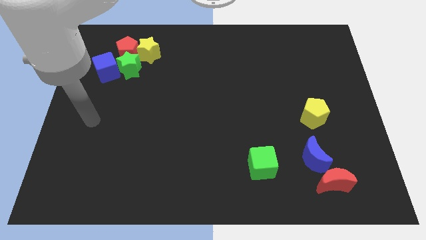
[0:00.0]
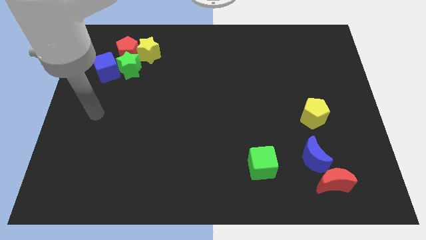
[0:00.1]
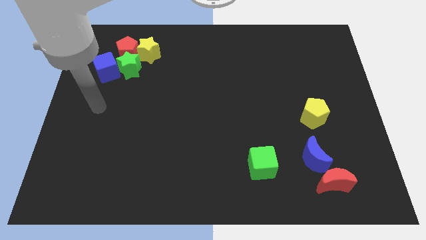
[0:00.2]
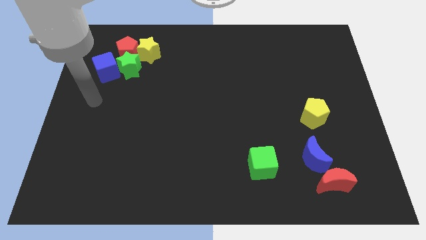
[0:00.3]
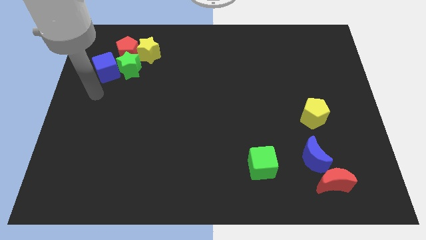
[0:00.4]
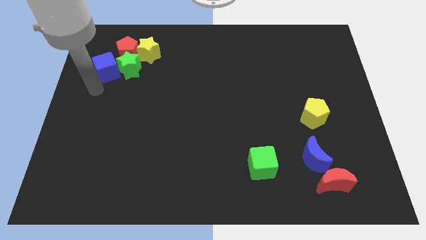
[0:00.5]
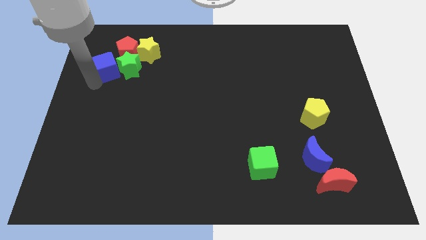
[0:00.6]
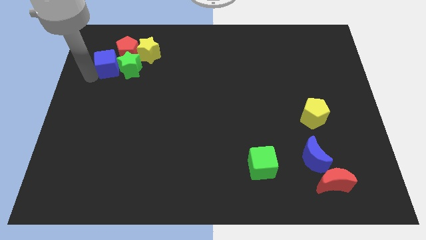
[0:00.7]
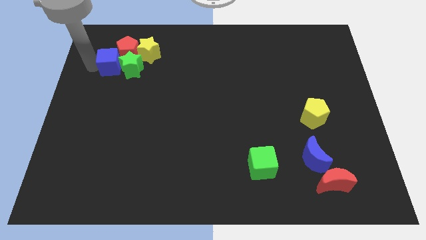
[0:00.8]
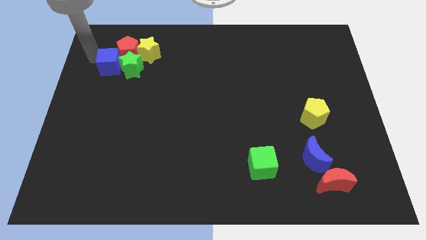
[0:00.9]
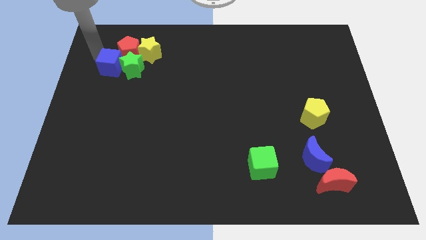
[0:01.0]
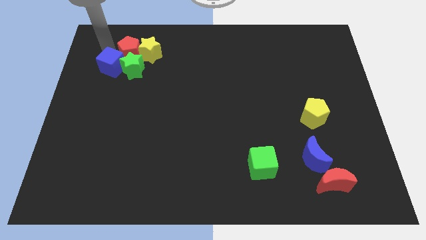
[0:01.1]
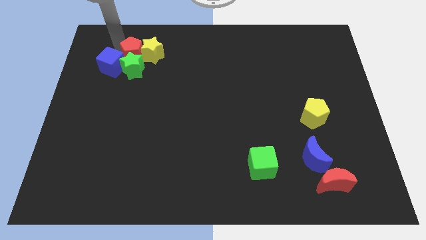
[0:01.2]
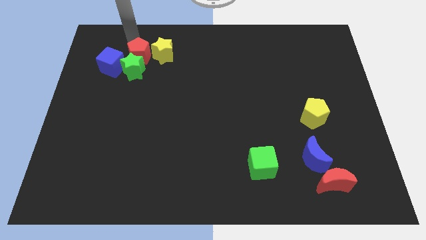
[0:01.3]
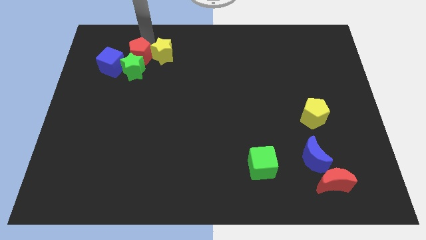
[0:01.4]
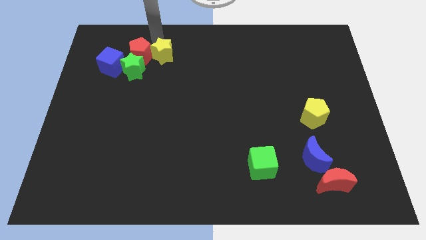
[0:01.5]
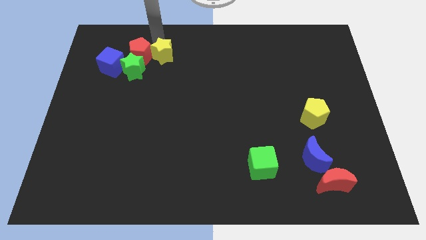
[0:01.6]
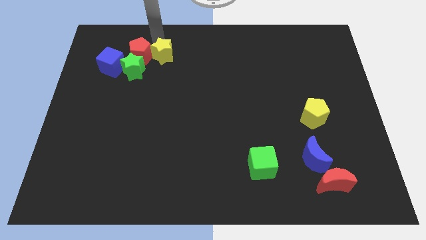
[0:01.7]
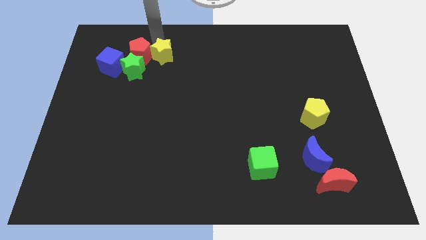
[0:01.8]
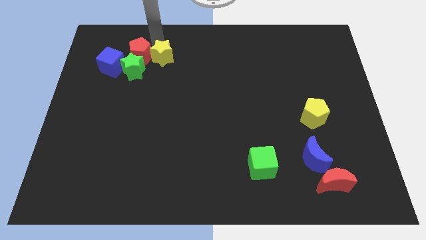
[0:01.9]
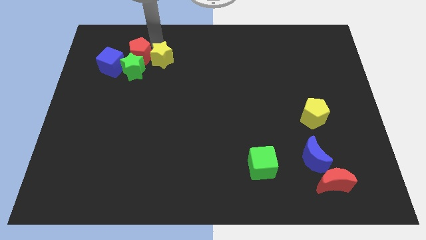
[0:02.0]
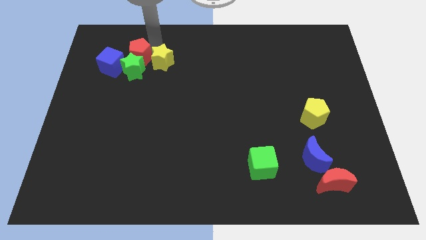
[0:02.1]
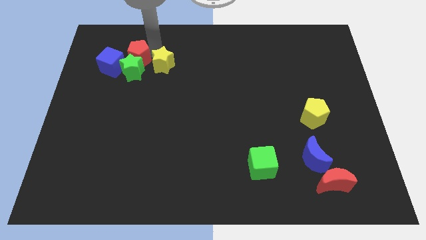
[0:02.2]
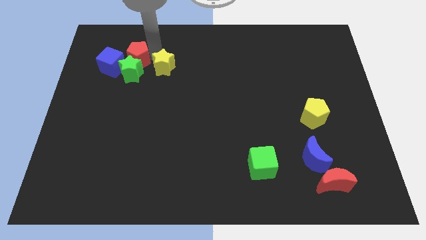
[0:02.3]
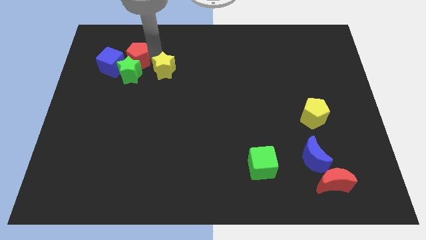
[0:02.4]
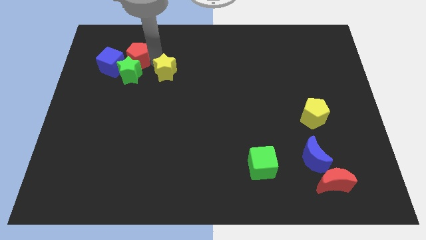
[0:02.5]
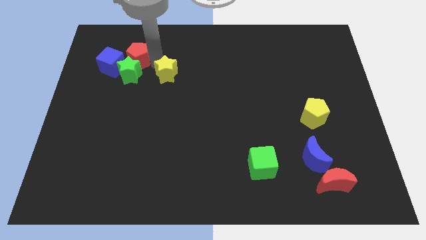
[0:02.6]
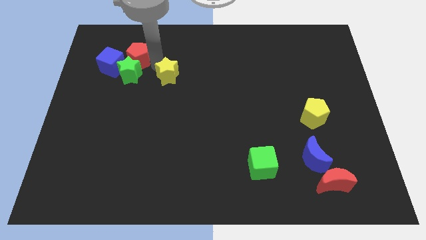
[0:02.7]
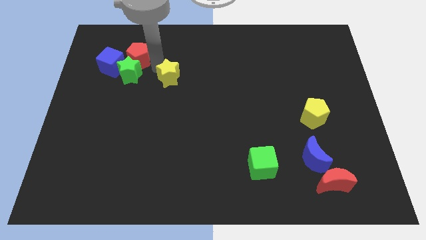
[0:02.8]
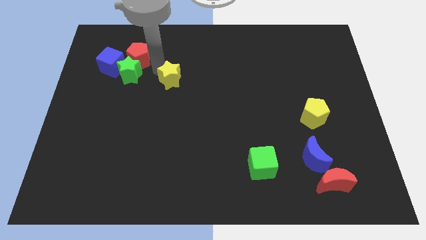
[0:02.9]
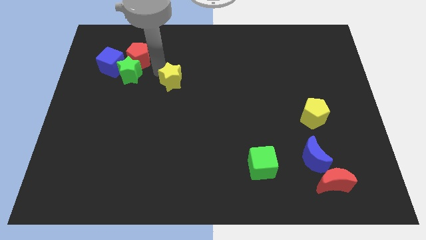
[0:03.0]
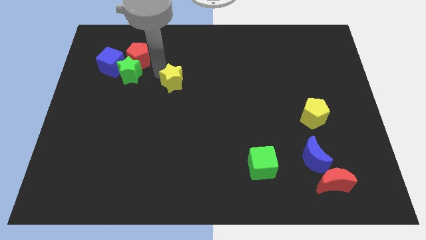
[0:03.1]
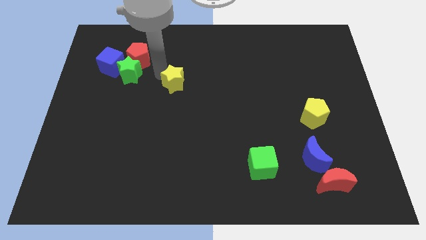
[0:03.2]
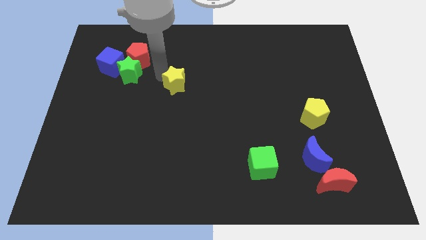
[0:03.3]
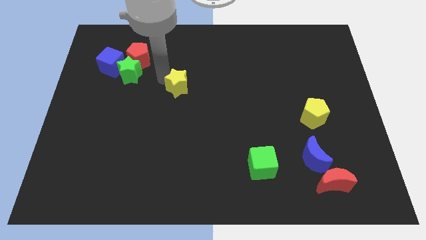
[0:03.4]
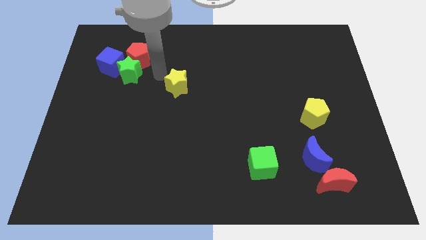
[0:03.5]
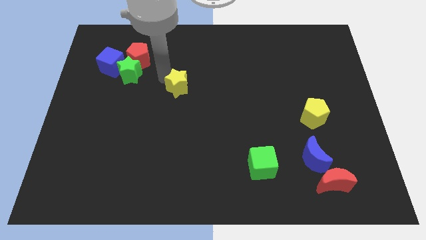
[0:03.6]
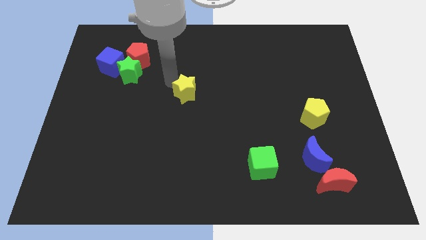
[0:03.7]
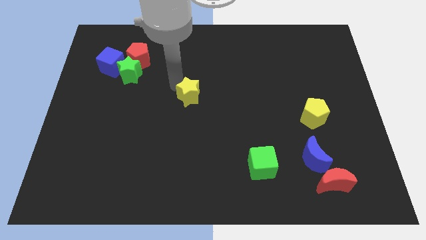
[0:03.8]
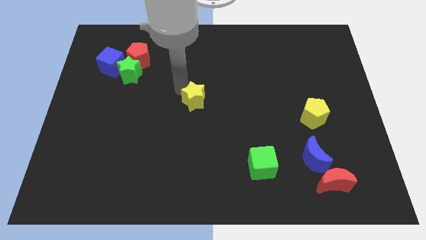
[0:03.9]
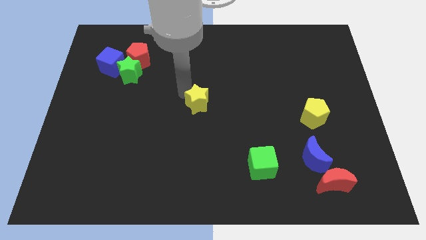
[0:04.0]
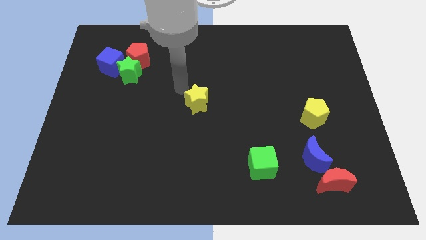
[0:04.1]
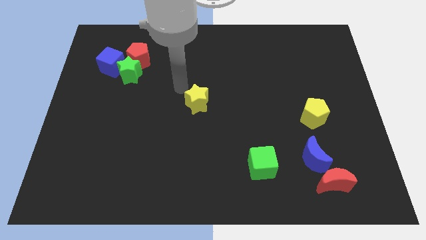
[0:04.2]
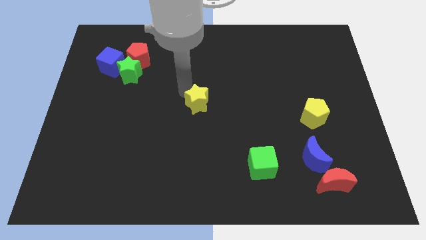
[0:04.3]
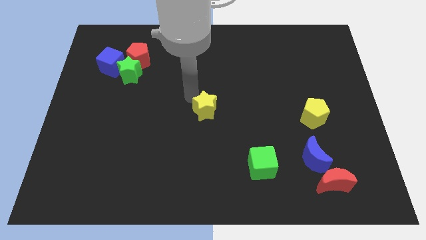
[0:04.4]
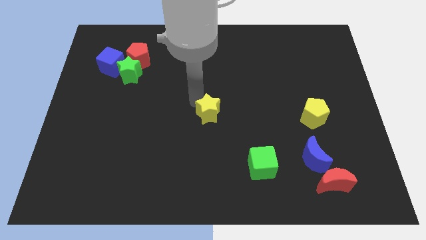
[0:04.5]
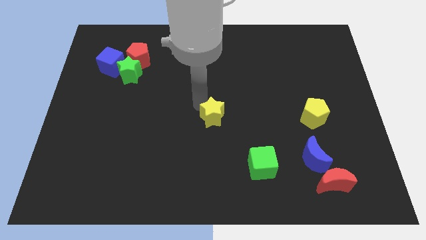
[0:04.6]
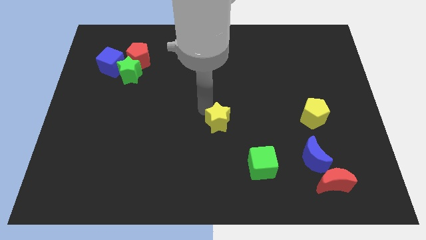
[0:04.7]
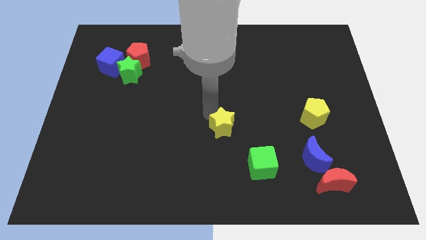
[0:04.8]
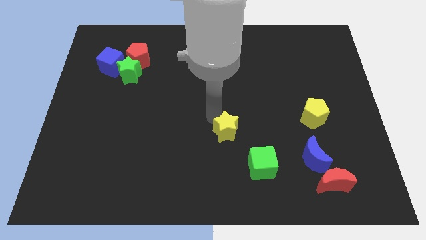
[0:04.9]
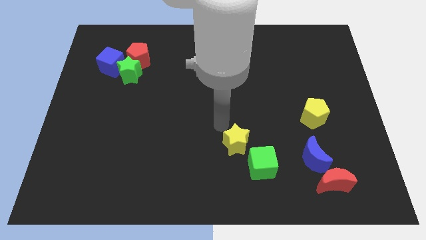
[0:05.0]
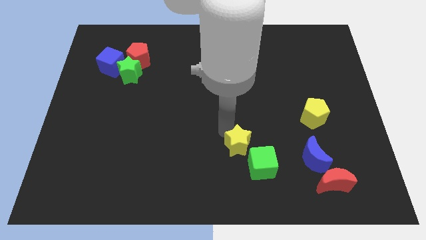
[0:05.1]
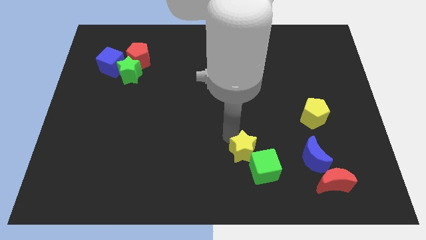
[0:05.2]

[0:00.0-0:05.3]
slide the yellow star next to the green cube

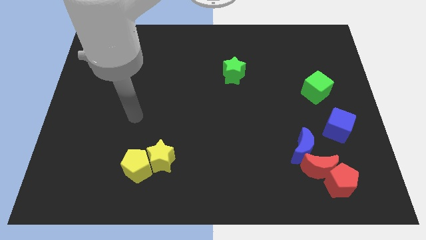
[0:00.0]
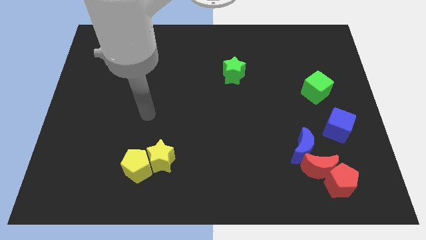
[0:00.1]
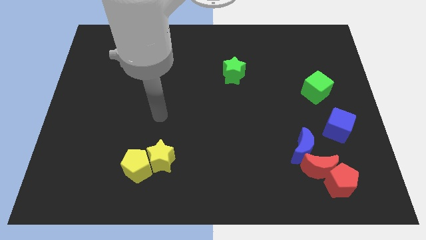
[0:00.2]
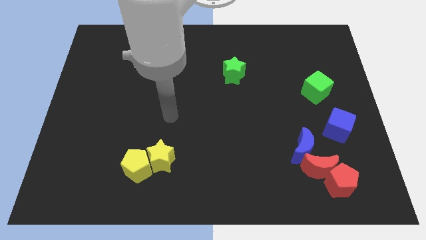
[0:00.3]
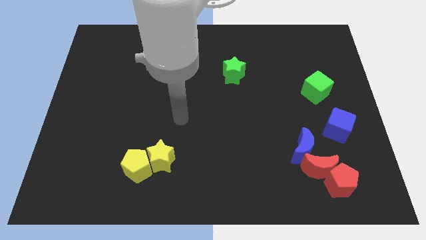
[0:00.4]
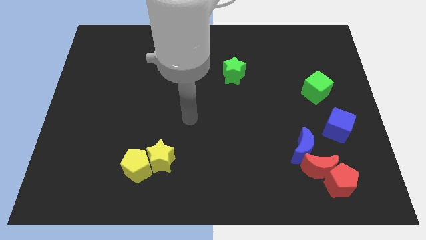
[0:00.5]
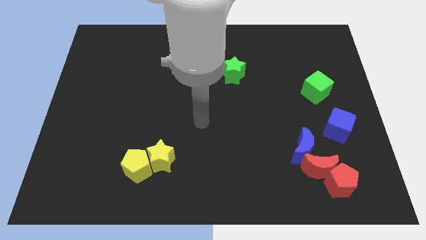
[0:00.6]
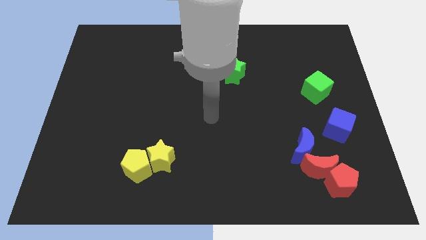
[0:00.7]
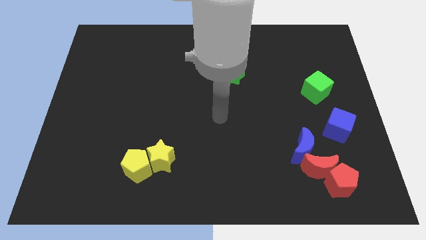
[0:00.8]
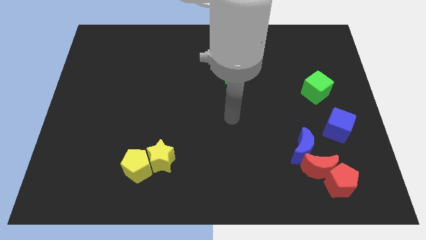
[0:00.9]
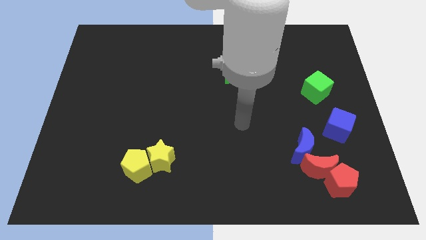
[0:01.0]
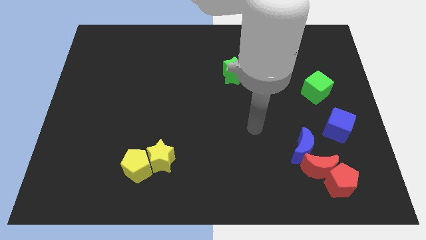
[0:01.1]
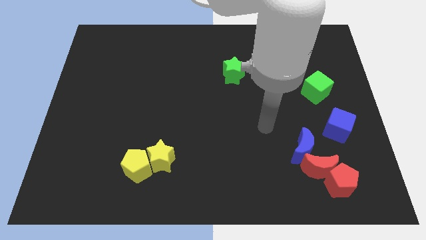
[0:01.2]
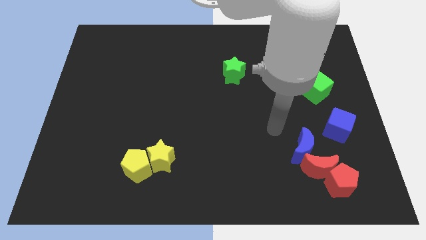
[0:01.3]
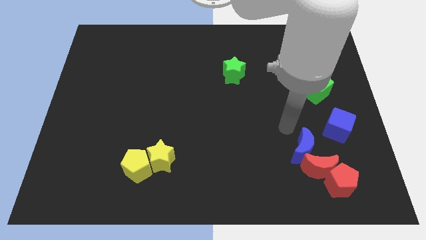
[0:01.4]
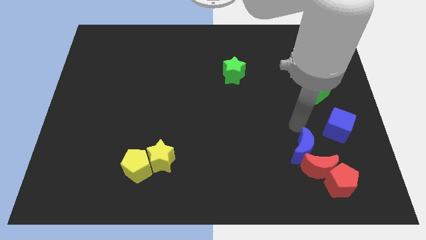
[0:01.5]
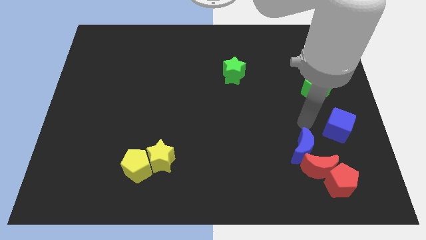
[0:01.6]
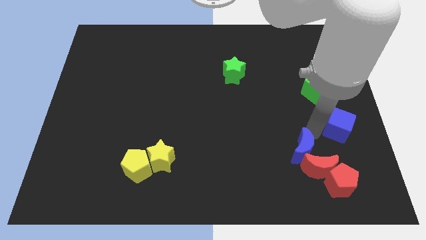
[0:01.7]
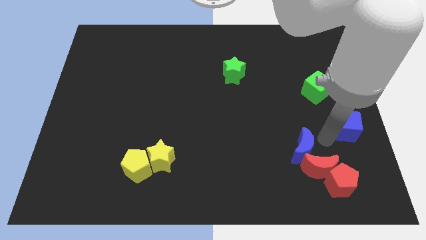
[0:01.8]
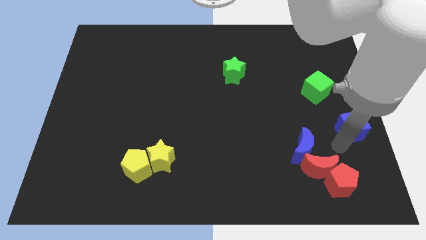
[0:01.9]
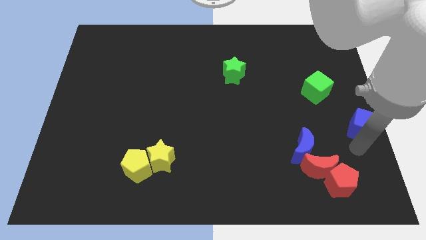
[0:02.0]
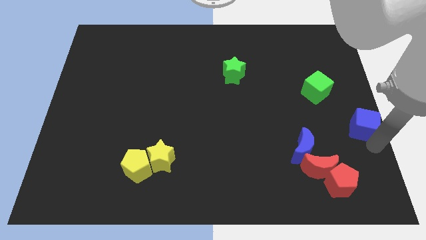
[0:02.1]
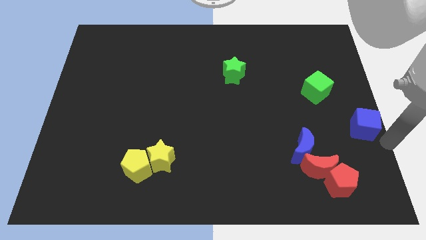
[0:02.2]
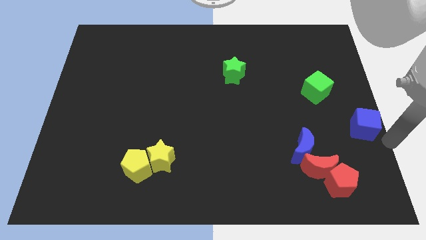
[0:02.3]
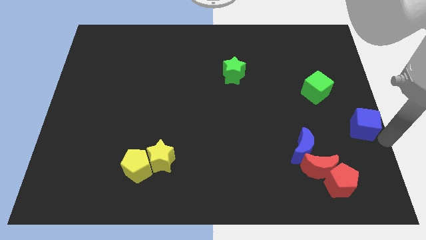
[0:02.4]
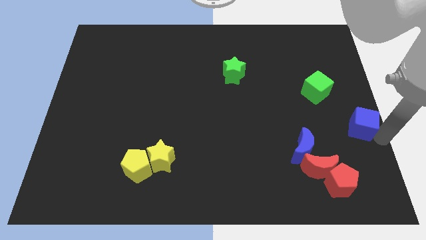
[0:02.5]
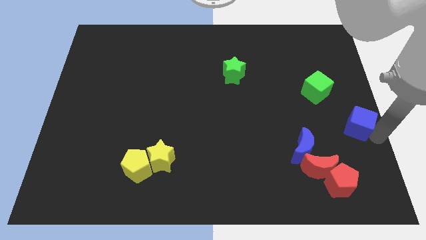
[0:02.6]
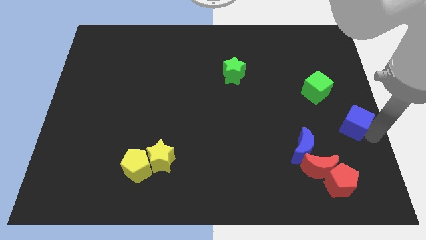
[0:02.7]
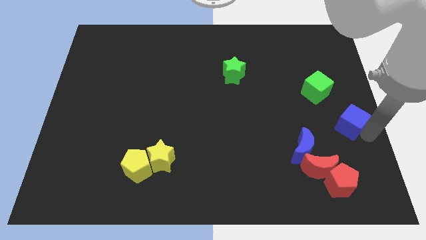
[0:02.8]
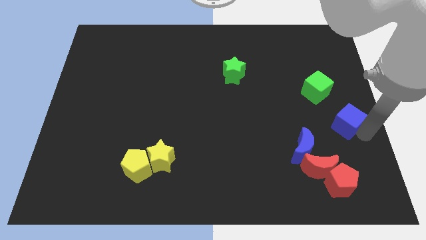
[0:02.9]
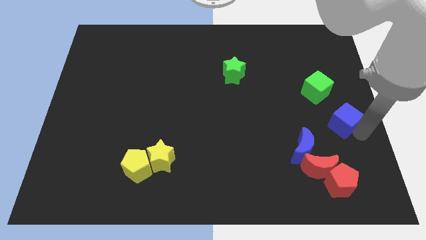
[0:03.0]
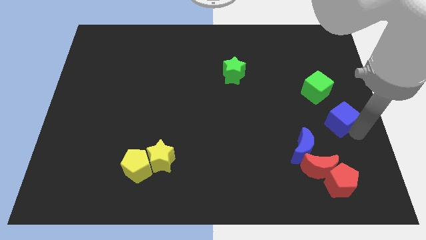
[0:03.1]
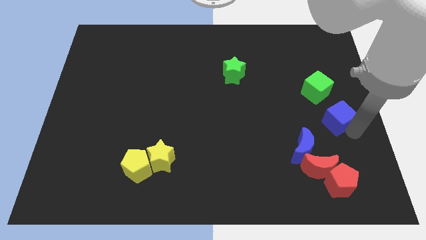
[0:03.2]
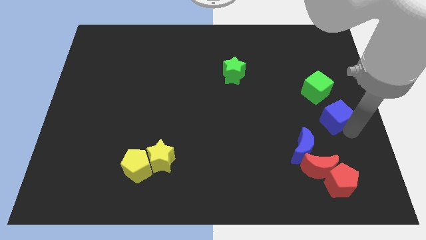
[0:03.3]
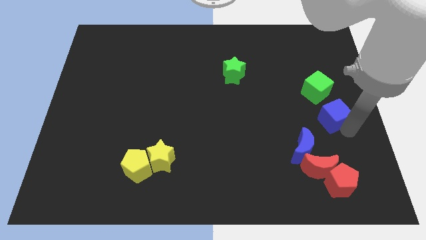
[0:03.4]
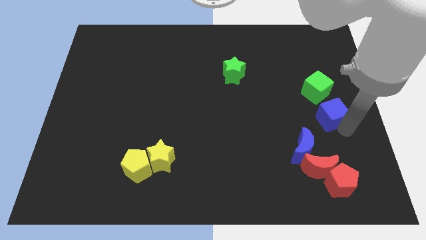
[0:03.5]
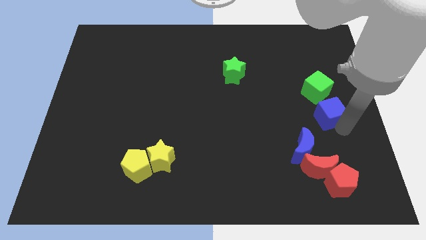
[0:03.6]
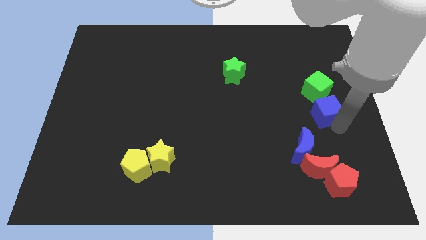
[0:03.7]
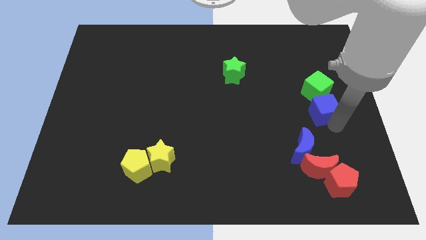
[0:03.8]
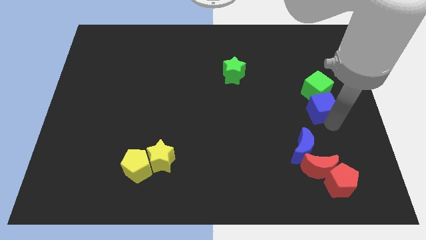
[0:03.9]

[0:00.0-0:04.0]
slide the blue cube close to the green cube
